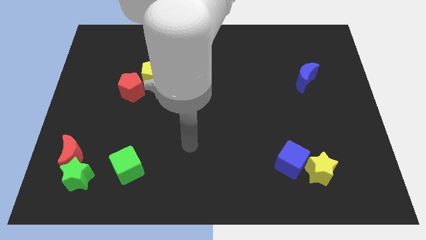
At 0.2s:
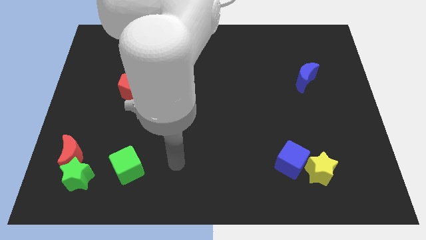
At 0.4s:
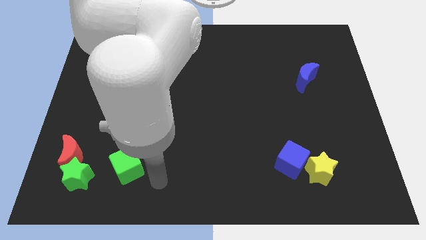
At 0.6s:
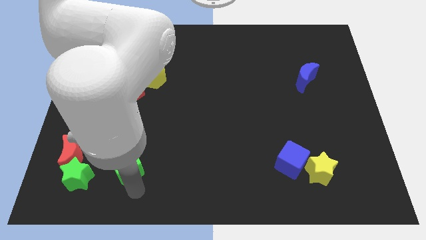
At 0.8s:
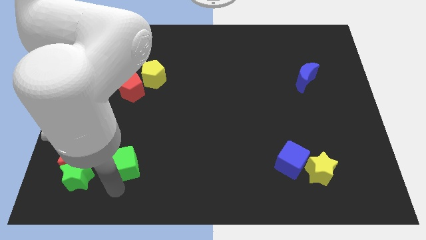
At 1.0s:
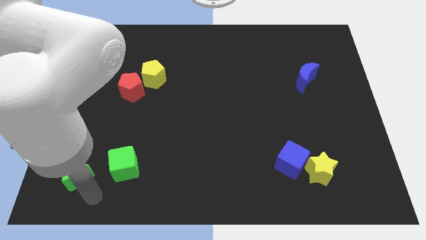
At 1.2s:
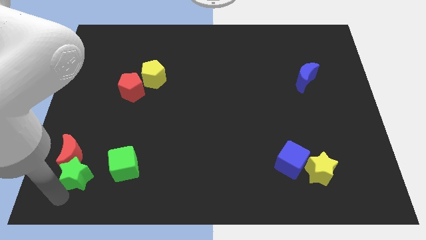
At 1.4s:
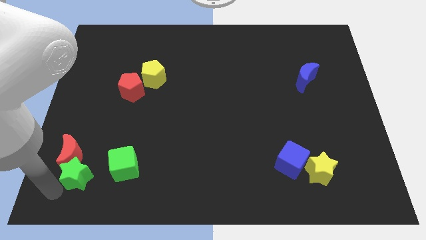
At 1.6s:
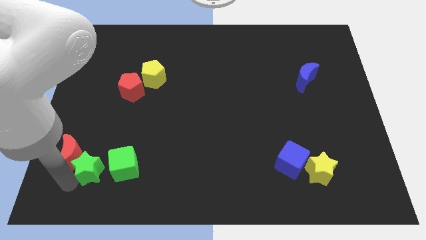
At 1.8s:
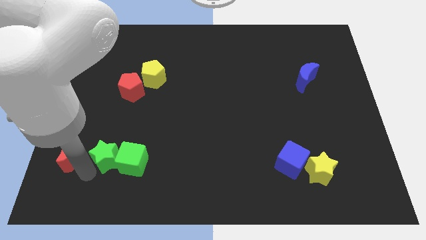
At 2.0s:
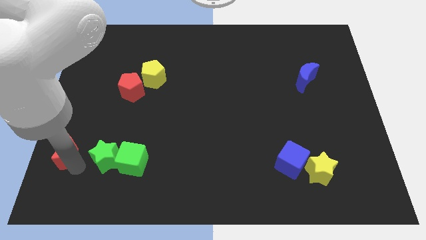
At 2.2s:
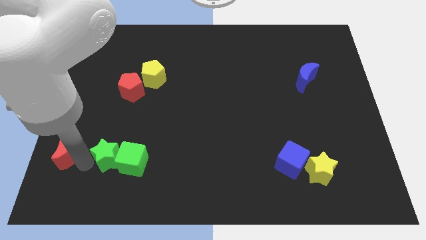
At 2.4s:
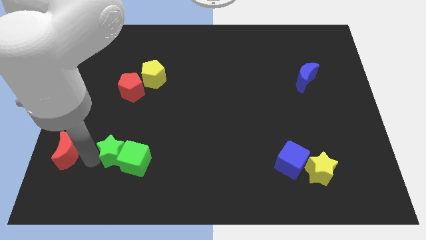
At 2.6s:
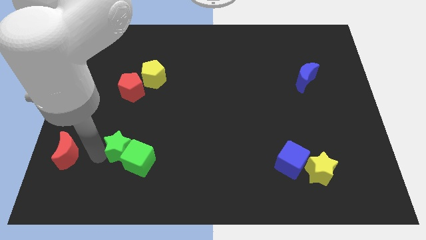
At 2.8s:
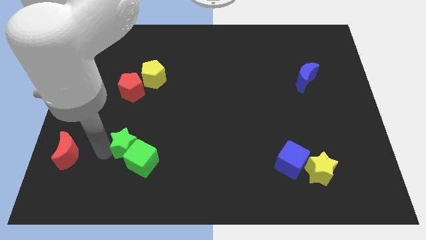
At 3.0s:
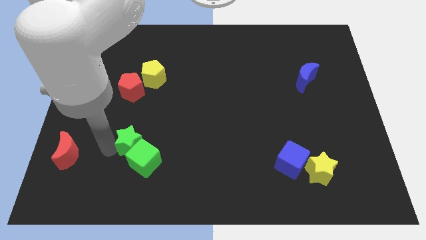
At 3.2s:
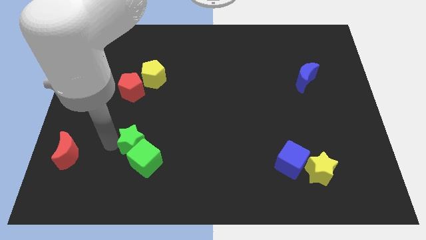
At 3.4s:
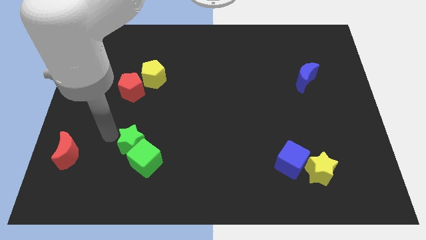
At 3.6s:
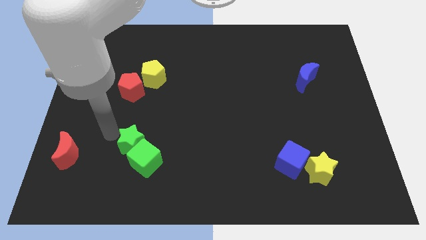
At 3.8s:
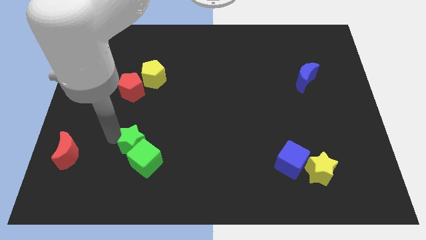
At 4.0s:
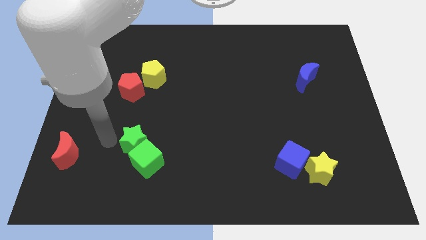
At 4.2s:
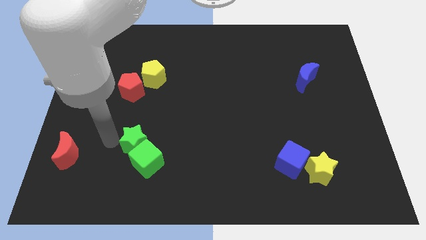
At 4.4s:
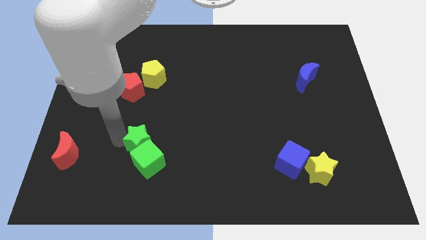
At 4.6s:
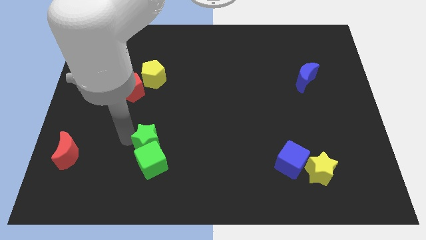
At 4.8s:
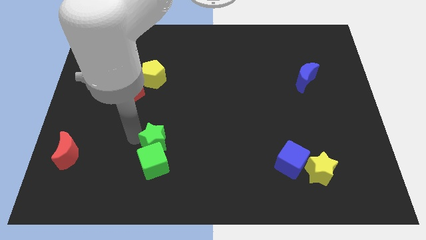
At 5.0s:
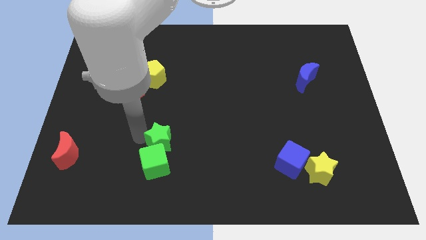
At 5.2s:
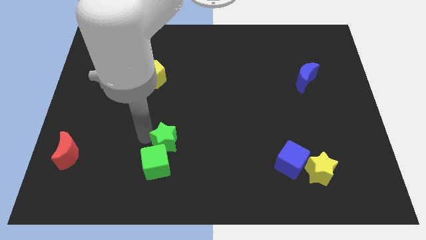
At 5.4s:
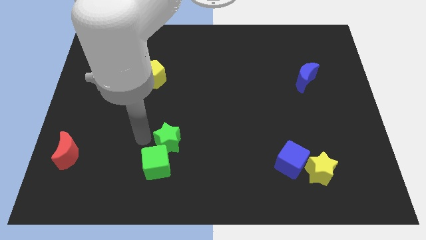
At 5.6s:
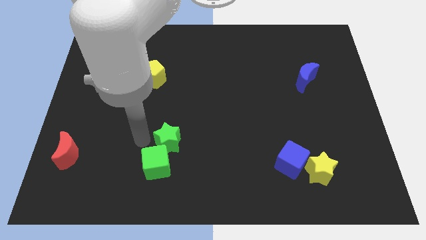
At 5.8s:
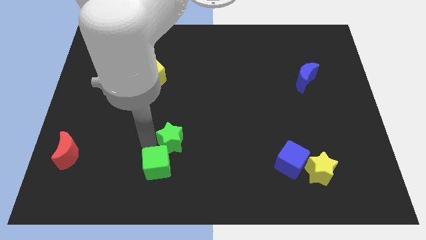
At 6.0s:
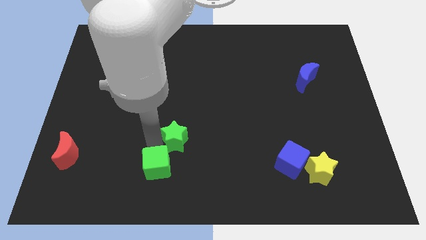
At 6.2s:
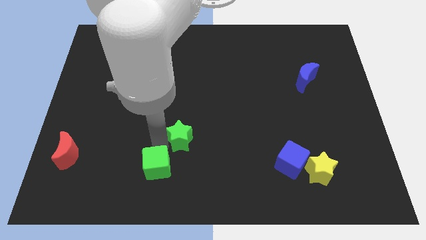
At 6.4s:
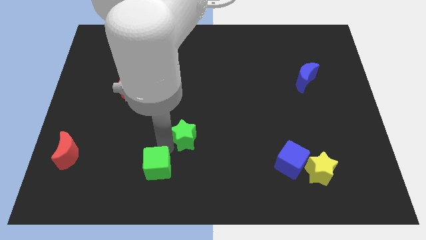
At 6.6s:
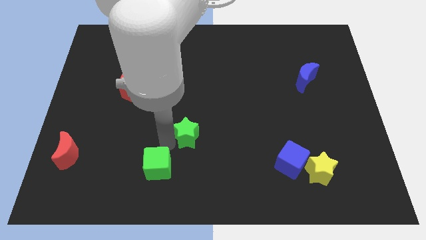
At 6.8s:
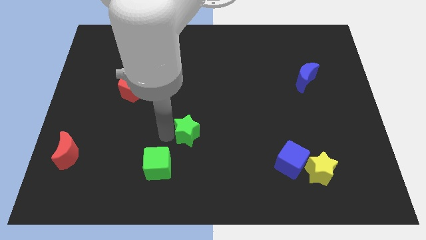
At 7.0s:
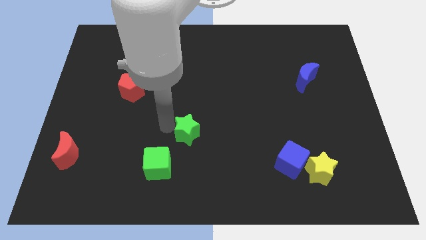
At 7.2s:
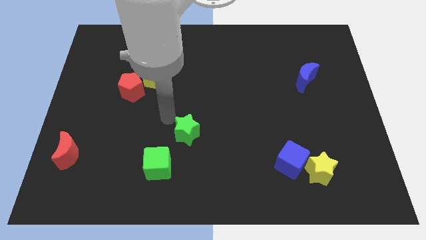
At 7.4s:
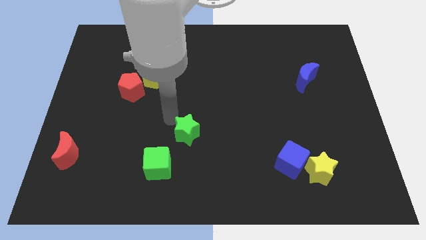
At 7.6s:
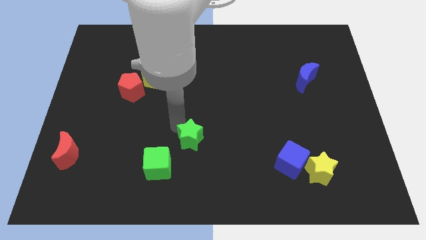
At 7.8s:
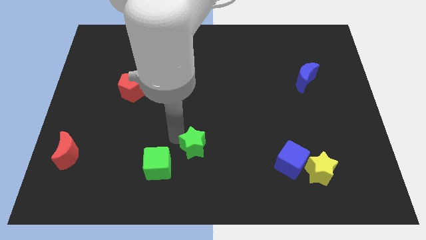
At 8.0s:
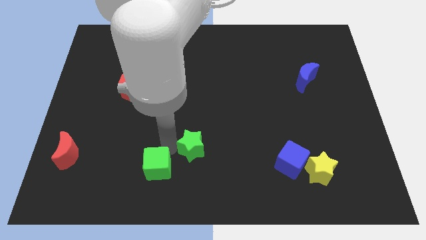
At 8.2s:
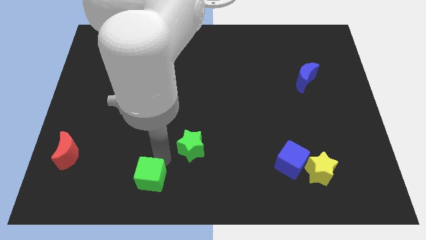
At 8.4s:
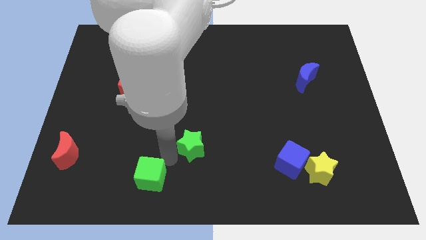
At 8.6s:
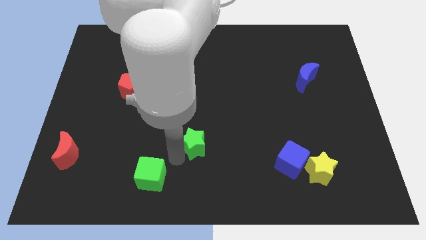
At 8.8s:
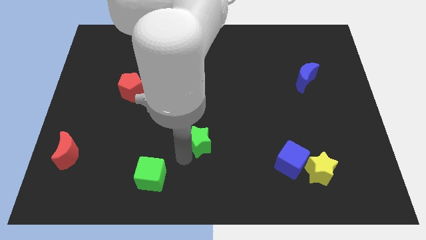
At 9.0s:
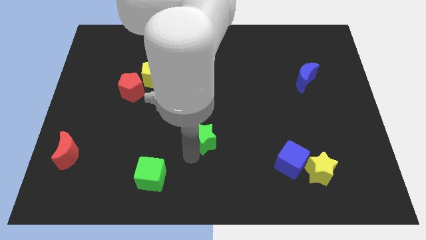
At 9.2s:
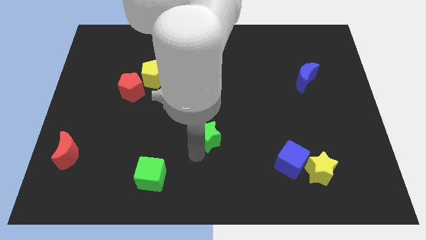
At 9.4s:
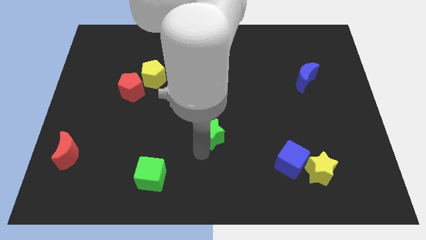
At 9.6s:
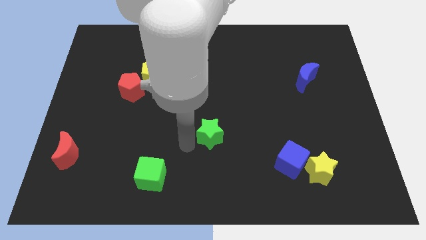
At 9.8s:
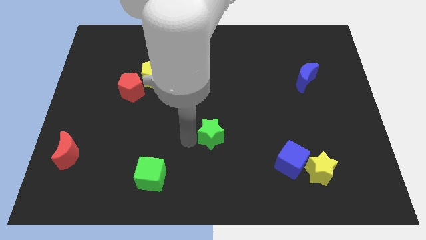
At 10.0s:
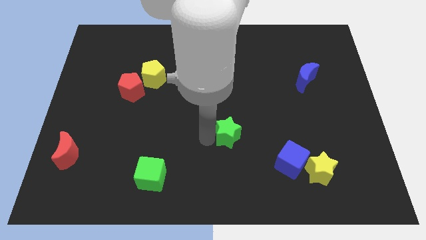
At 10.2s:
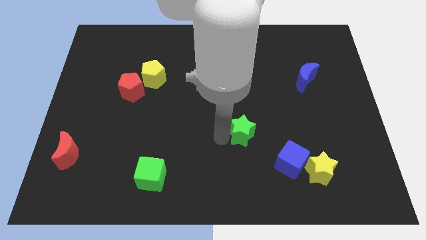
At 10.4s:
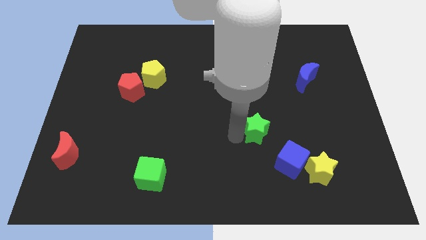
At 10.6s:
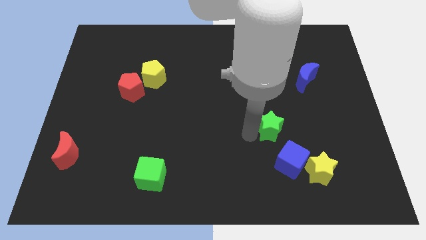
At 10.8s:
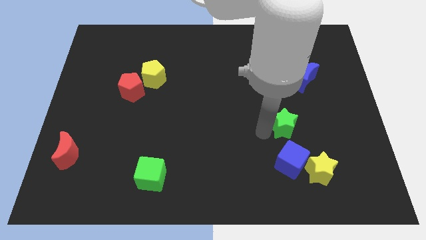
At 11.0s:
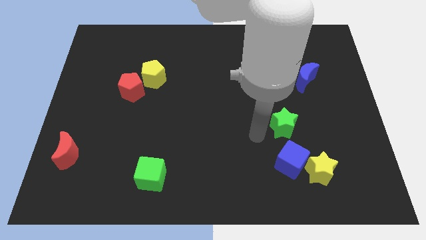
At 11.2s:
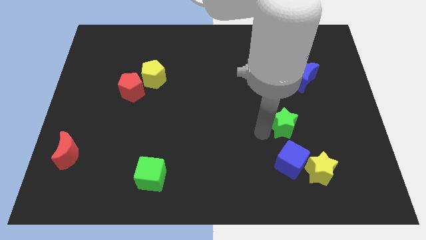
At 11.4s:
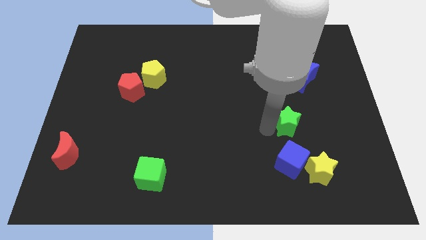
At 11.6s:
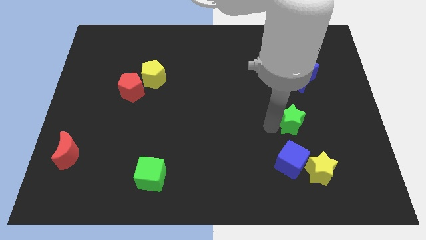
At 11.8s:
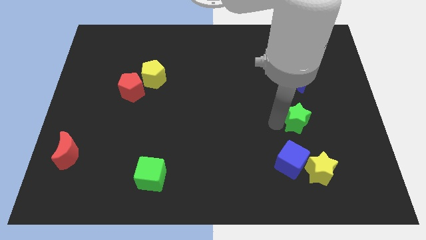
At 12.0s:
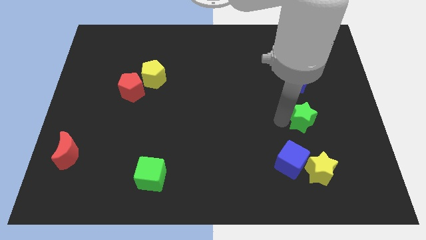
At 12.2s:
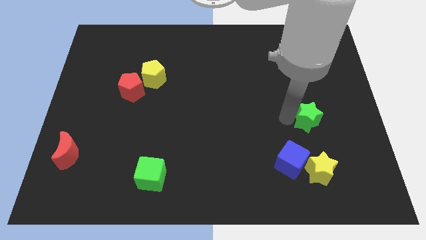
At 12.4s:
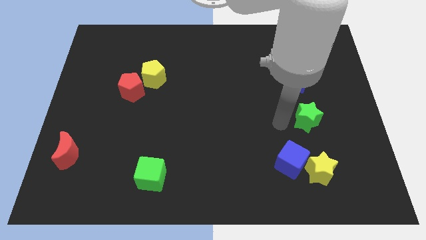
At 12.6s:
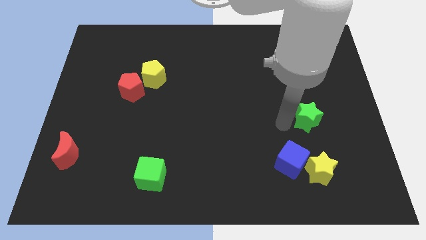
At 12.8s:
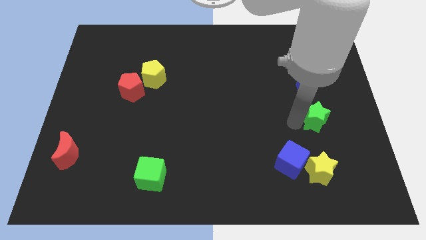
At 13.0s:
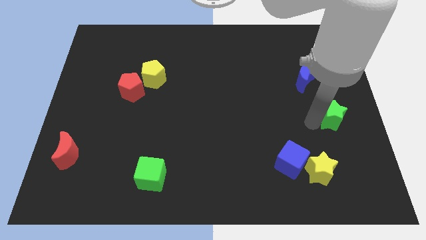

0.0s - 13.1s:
put the green star to the right side
